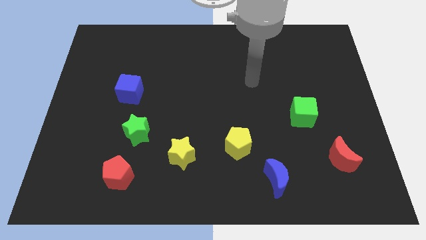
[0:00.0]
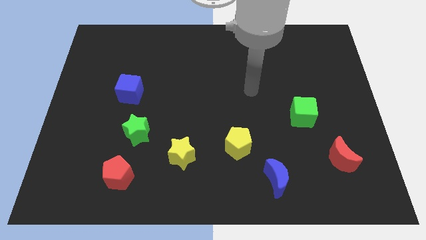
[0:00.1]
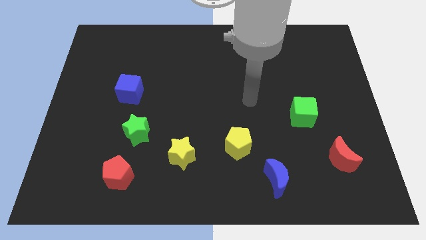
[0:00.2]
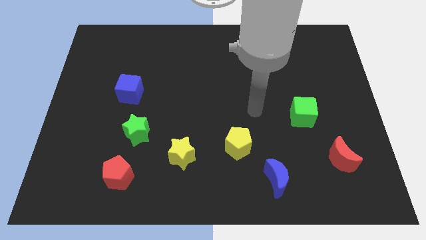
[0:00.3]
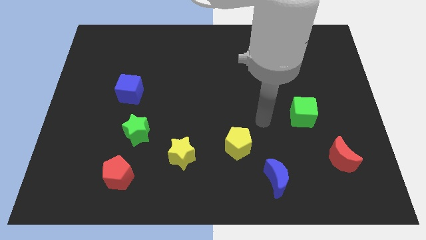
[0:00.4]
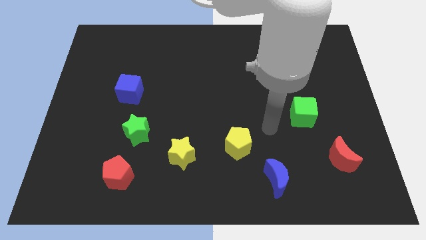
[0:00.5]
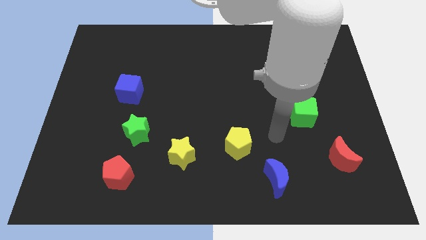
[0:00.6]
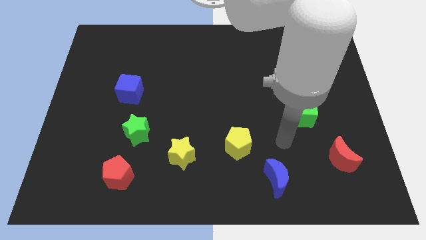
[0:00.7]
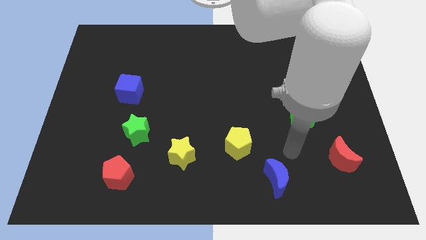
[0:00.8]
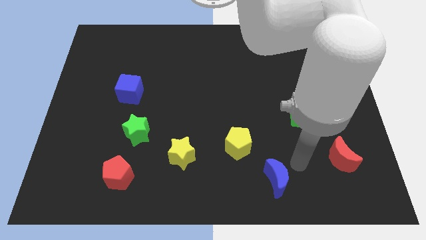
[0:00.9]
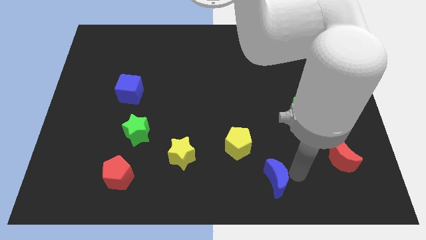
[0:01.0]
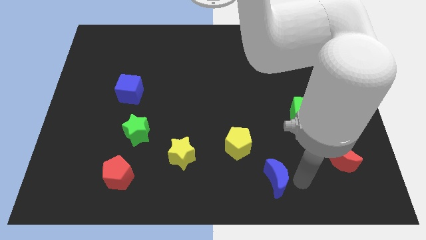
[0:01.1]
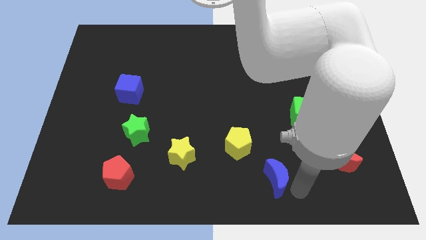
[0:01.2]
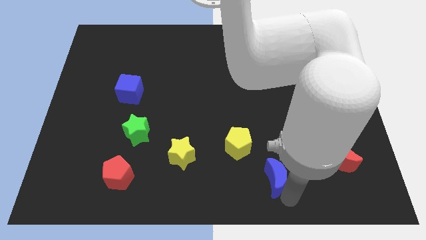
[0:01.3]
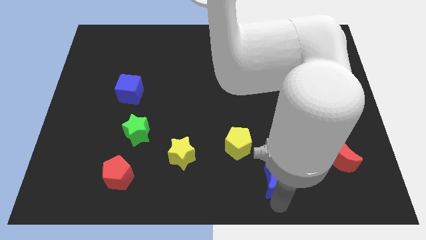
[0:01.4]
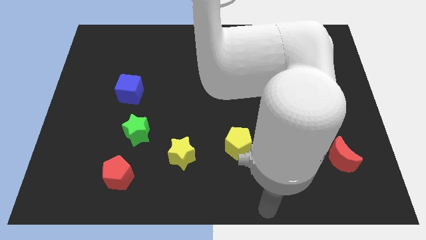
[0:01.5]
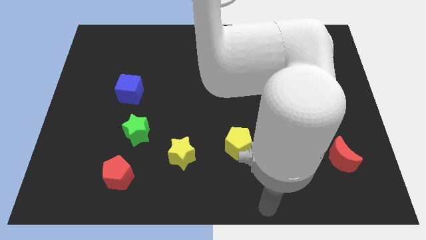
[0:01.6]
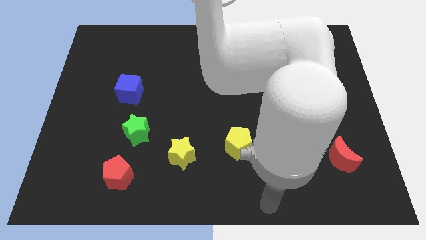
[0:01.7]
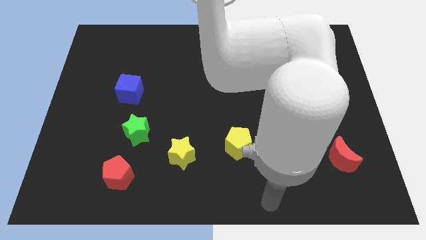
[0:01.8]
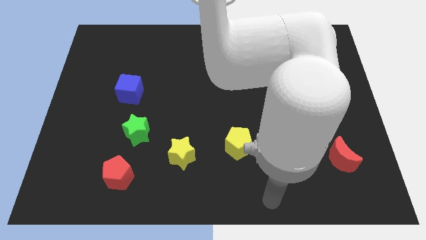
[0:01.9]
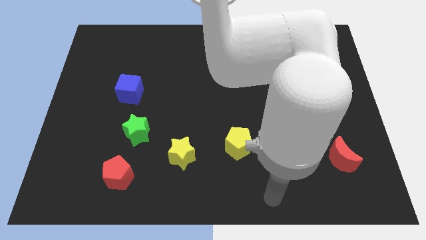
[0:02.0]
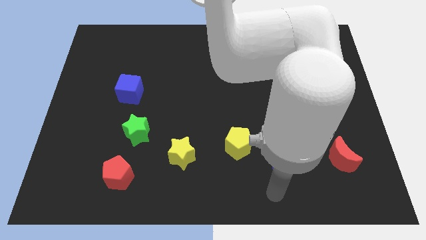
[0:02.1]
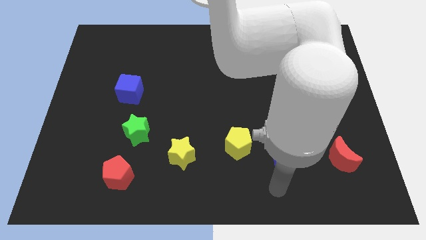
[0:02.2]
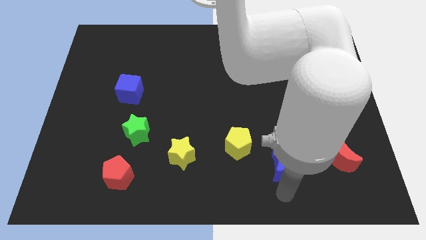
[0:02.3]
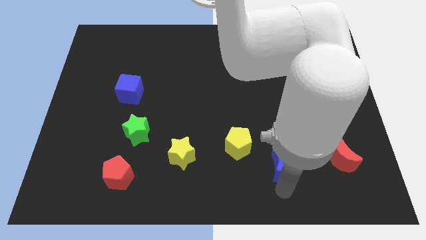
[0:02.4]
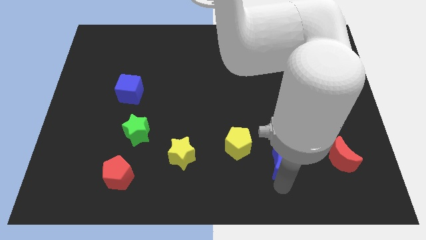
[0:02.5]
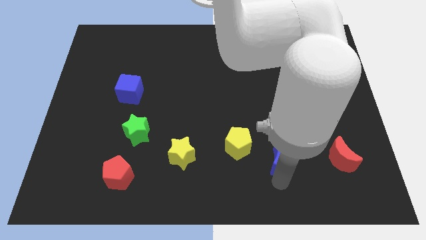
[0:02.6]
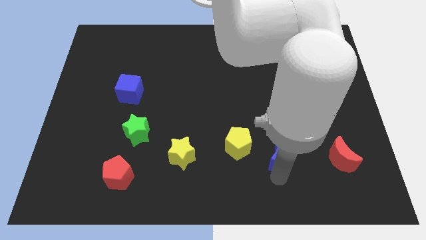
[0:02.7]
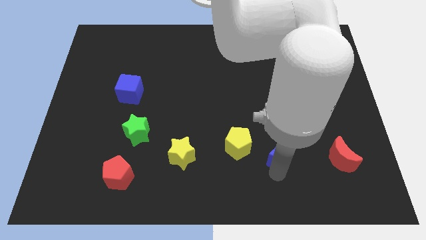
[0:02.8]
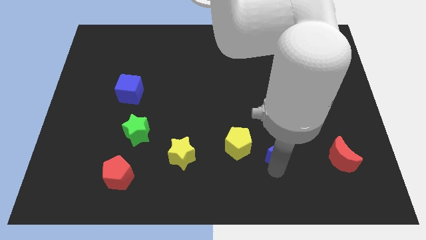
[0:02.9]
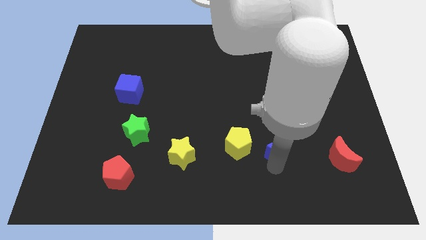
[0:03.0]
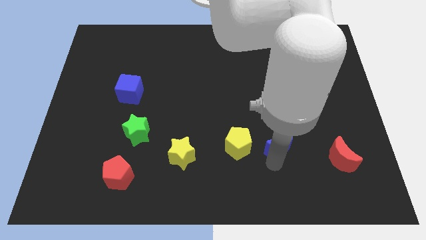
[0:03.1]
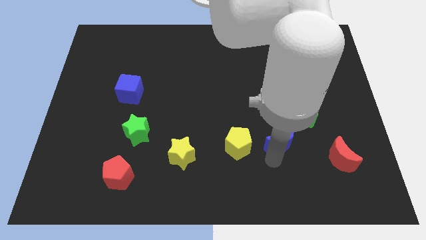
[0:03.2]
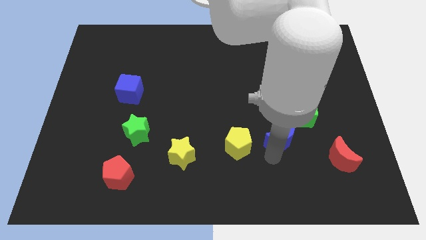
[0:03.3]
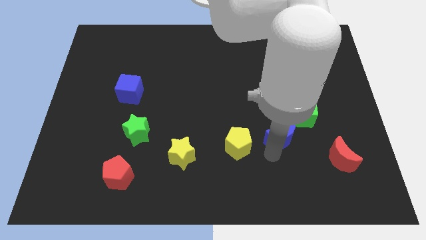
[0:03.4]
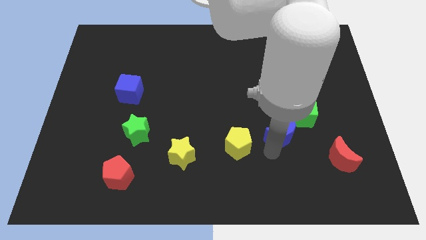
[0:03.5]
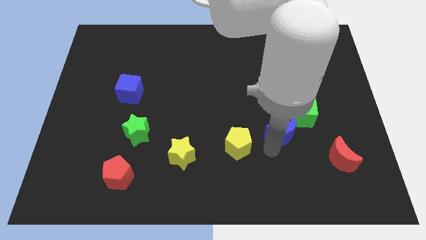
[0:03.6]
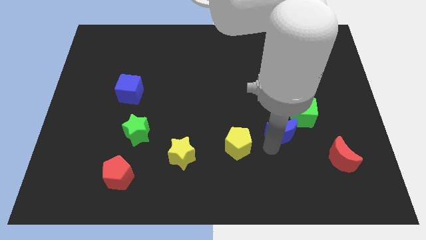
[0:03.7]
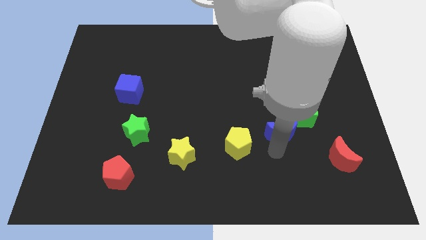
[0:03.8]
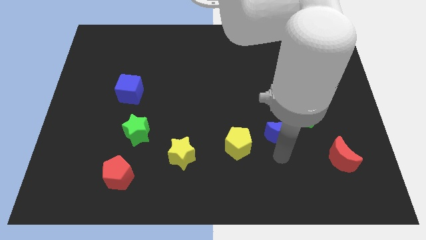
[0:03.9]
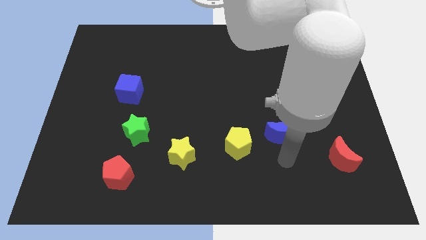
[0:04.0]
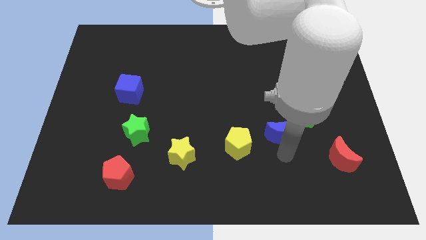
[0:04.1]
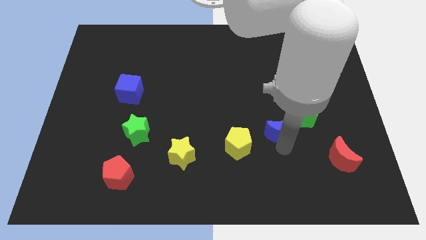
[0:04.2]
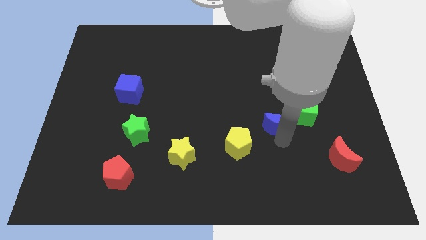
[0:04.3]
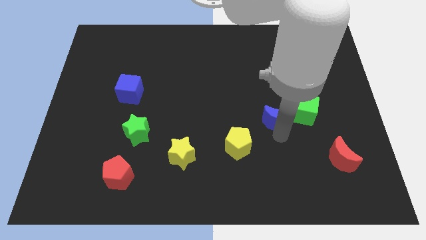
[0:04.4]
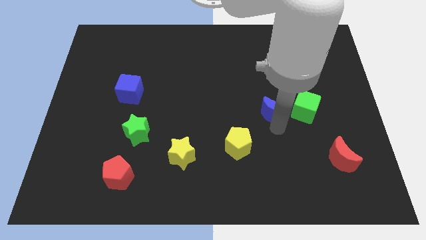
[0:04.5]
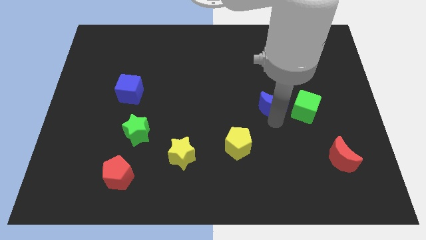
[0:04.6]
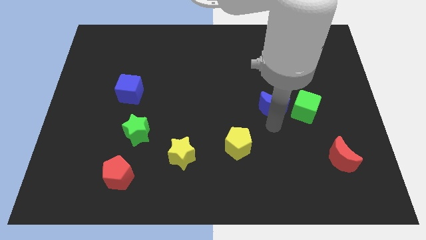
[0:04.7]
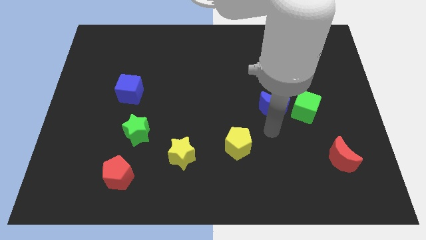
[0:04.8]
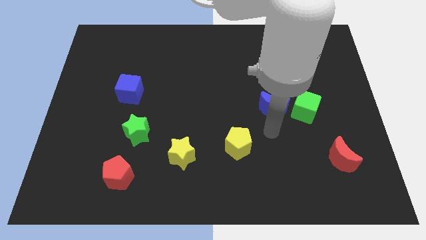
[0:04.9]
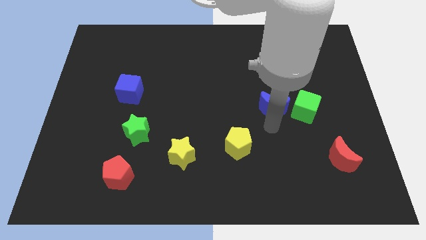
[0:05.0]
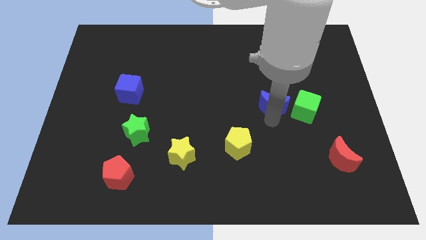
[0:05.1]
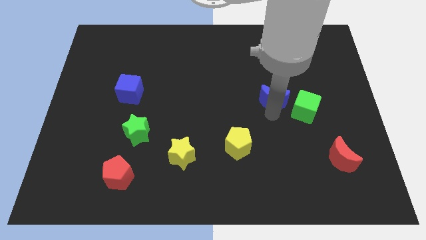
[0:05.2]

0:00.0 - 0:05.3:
slide the blue moon up

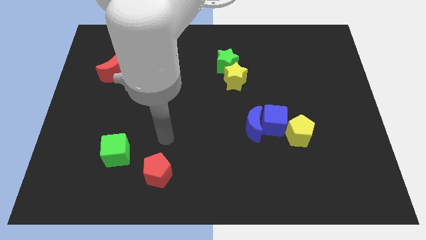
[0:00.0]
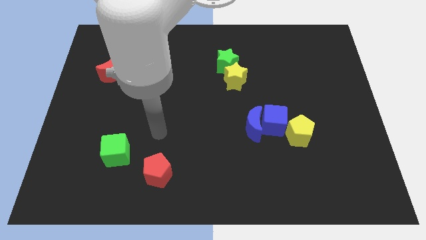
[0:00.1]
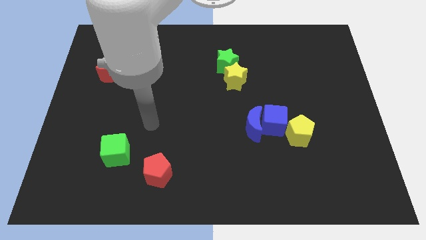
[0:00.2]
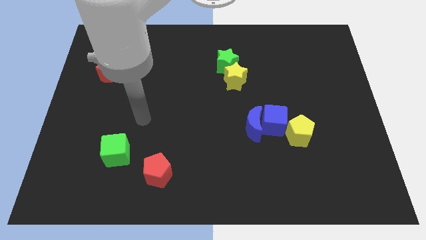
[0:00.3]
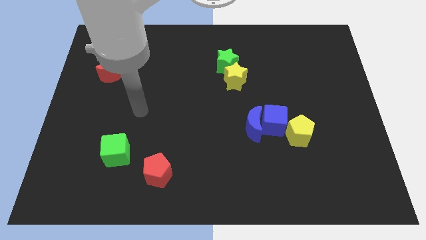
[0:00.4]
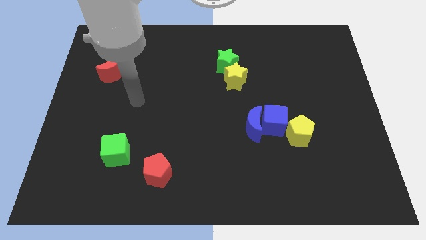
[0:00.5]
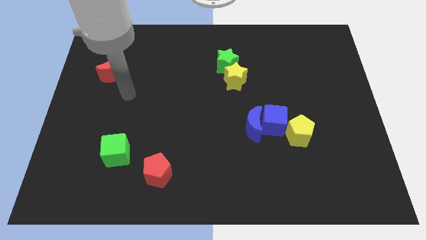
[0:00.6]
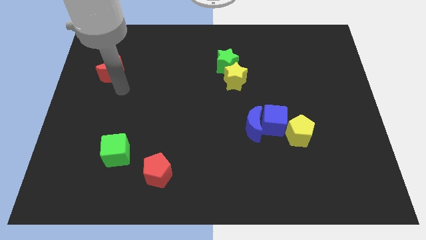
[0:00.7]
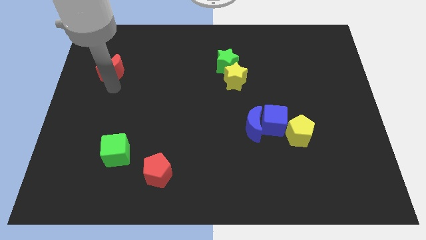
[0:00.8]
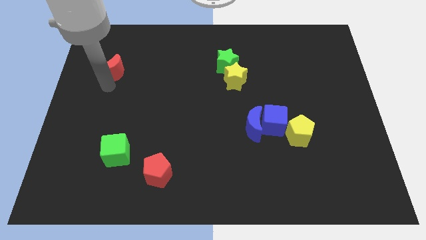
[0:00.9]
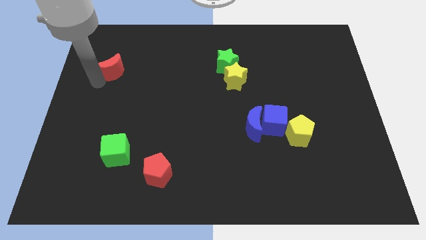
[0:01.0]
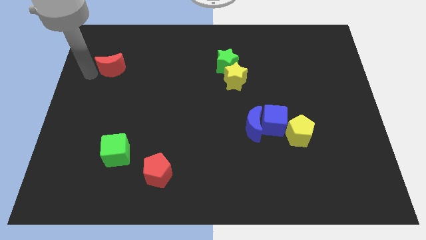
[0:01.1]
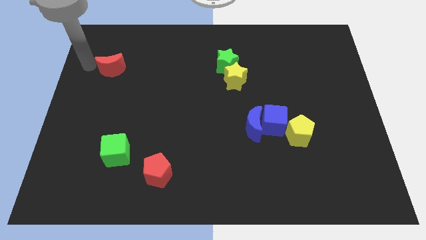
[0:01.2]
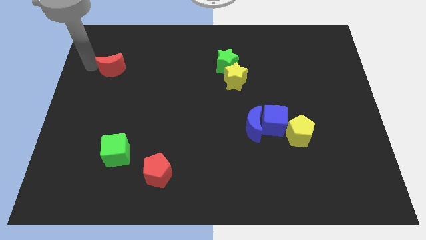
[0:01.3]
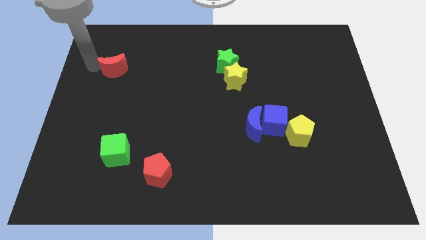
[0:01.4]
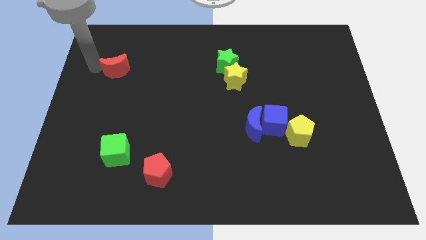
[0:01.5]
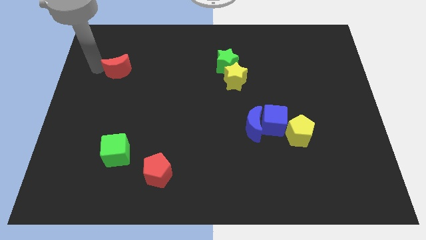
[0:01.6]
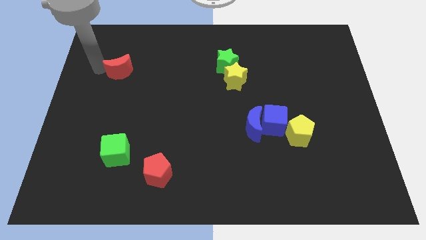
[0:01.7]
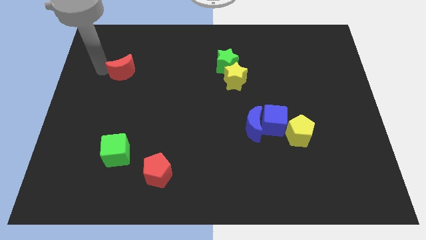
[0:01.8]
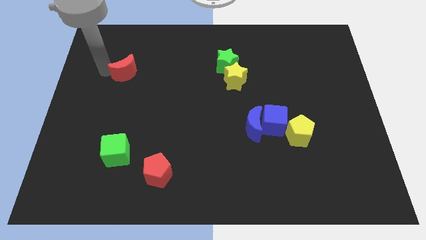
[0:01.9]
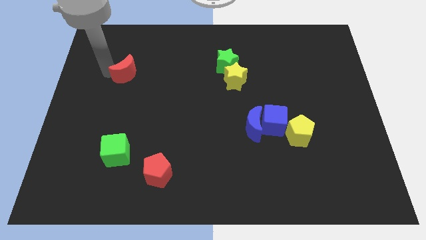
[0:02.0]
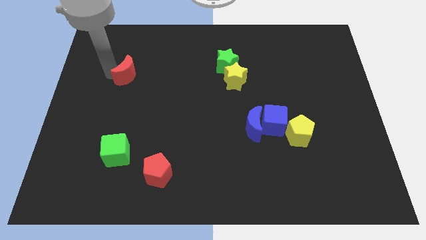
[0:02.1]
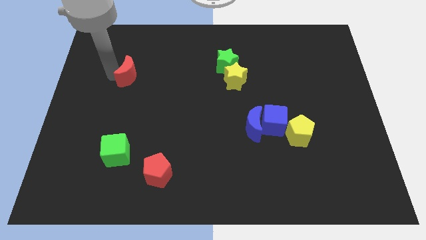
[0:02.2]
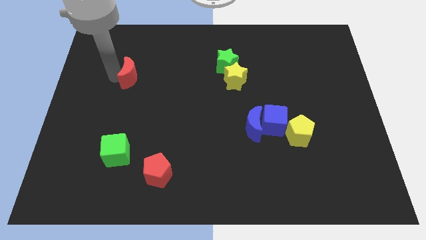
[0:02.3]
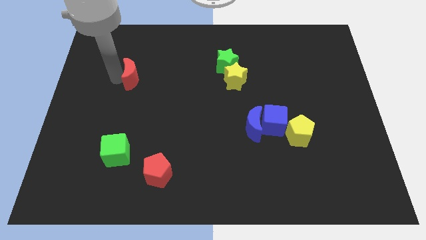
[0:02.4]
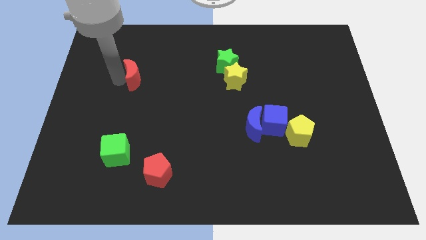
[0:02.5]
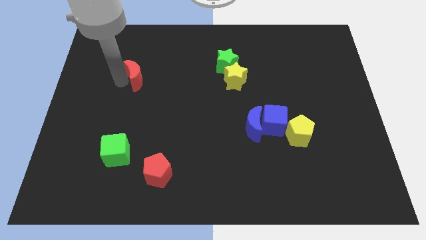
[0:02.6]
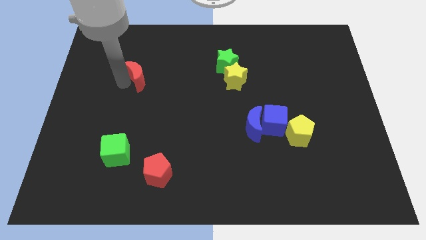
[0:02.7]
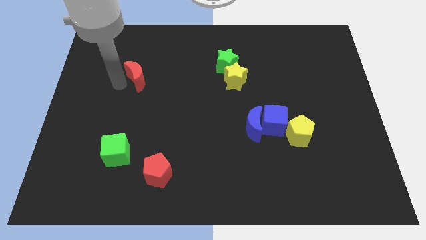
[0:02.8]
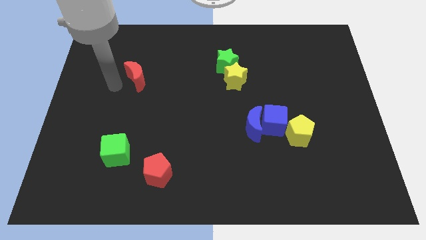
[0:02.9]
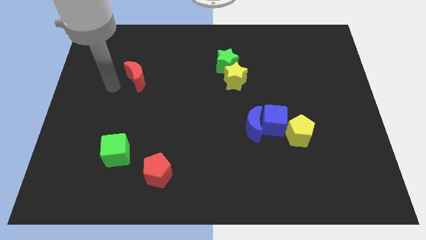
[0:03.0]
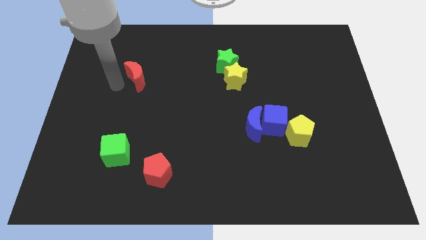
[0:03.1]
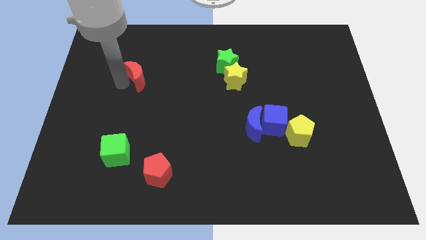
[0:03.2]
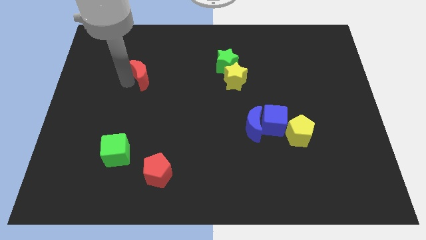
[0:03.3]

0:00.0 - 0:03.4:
slightly push the red moon to the right
